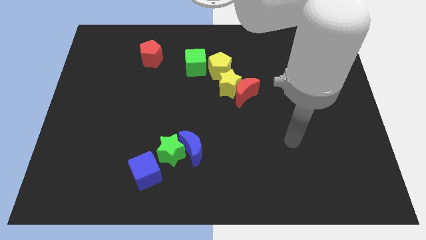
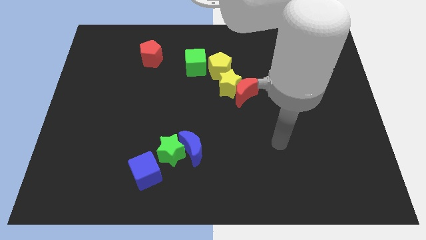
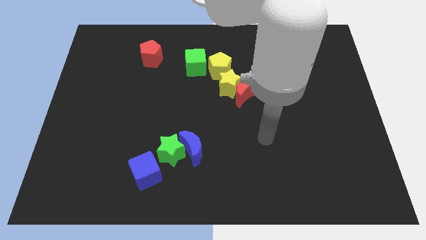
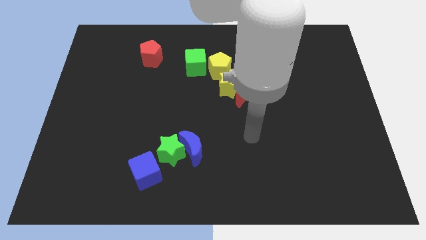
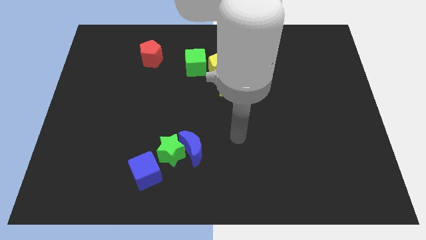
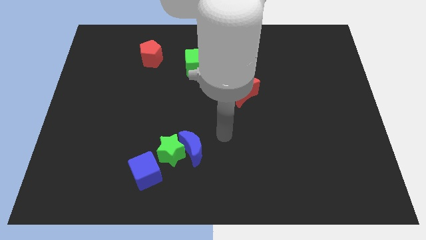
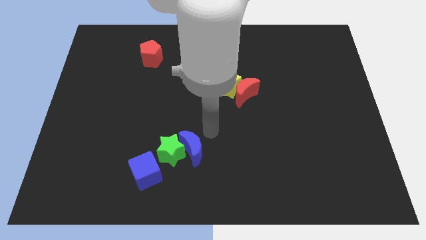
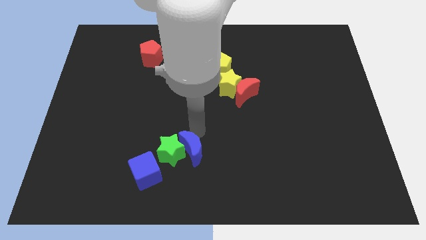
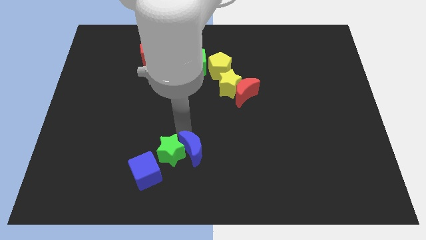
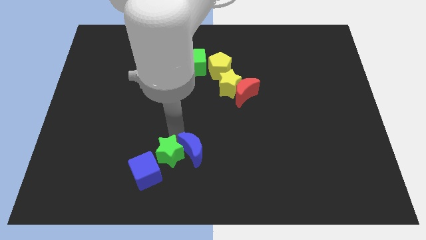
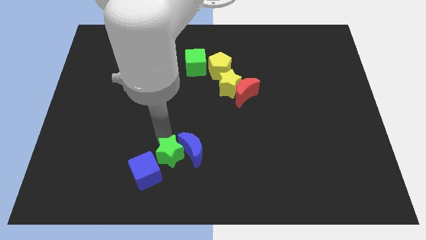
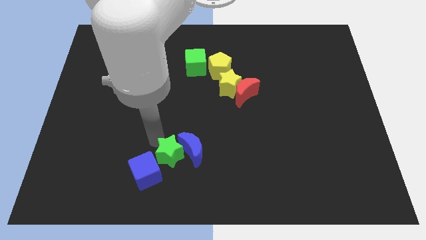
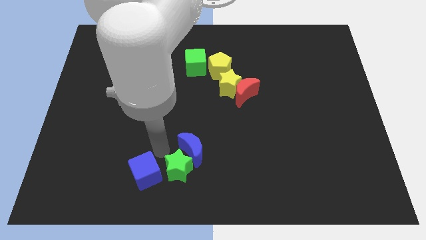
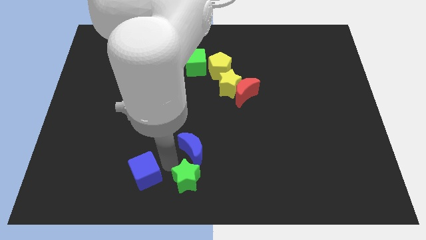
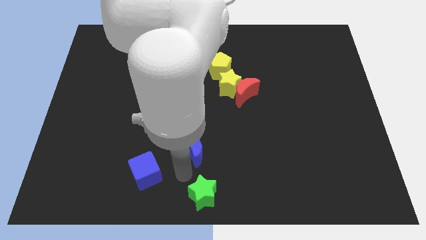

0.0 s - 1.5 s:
move the blue moon away from the green star

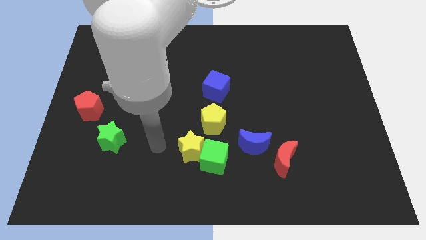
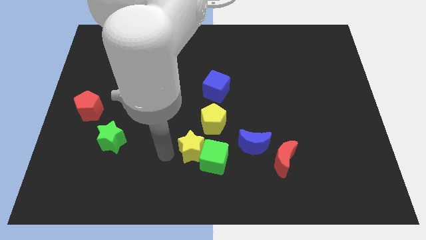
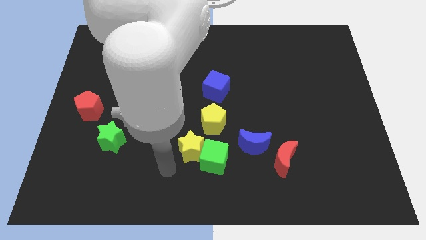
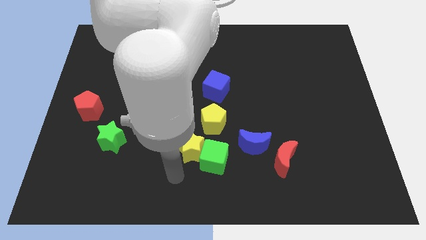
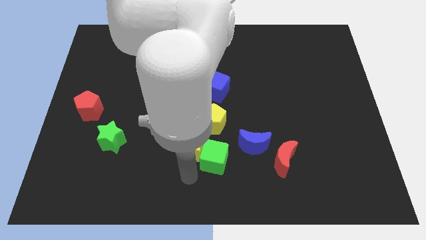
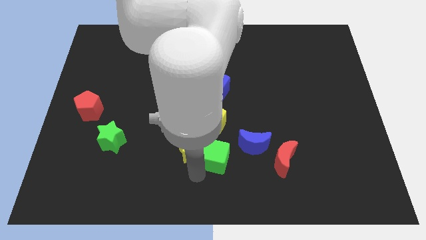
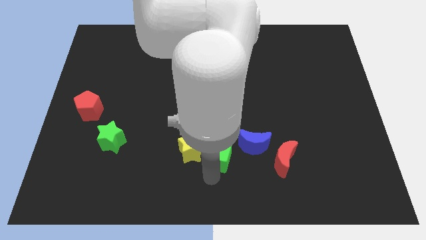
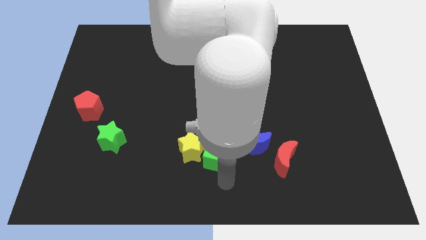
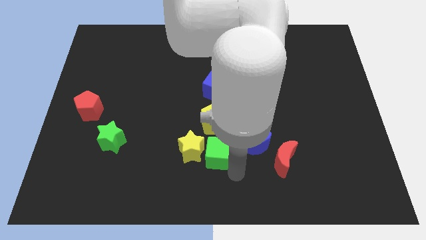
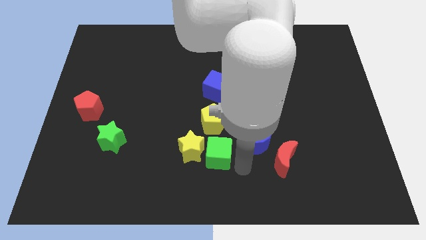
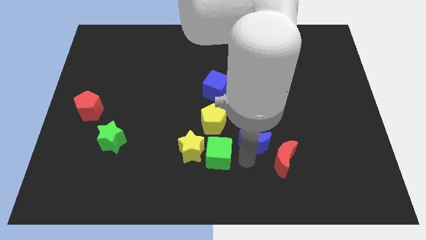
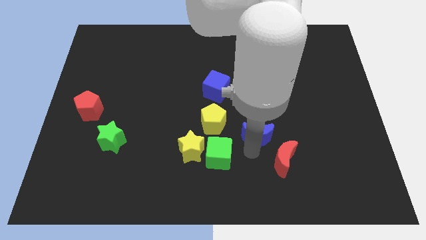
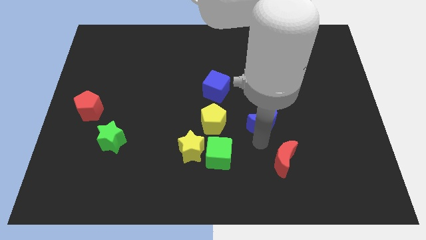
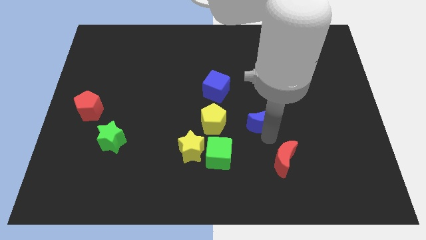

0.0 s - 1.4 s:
pull the red moon apart from the blue moon

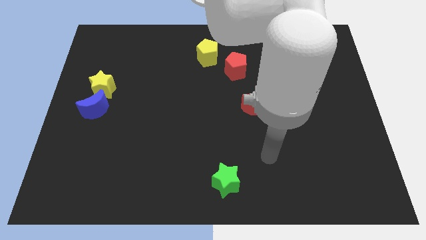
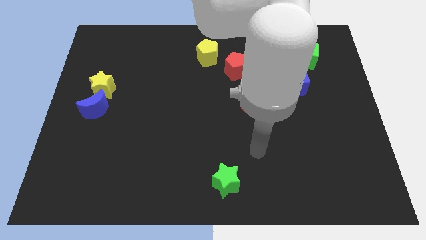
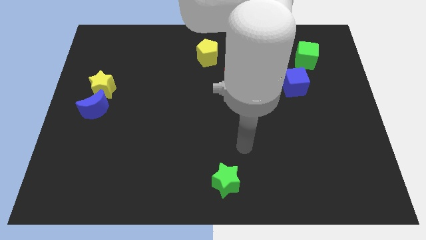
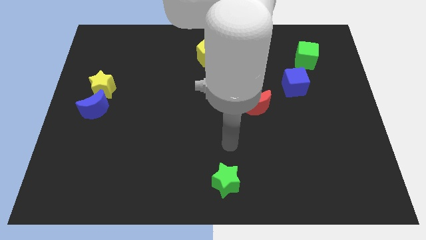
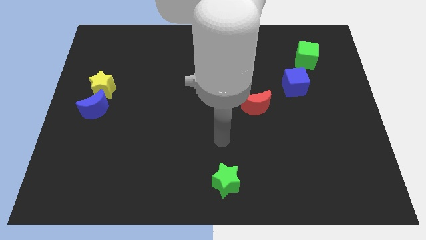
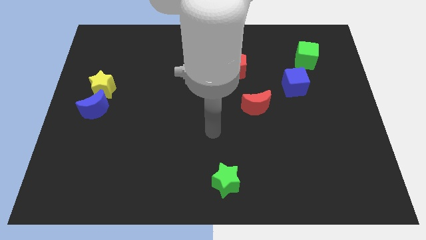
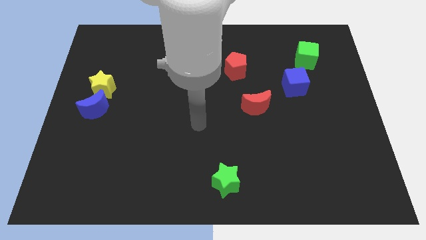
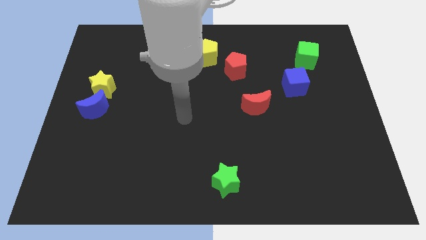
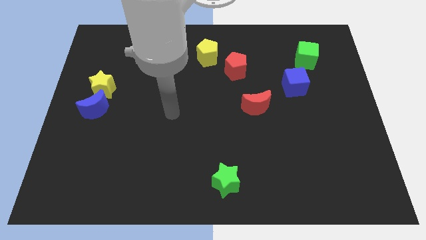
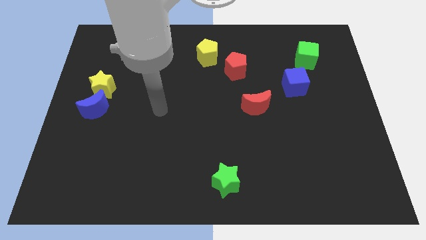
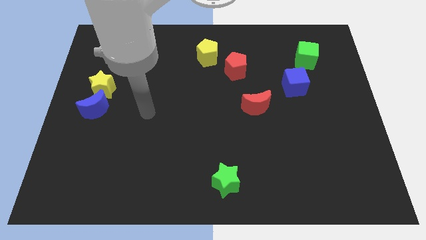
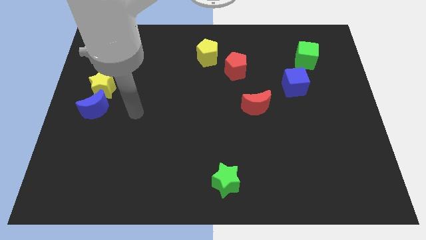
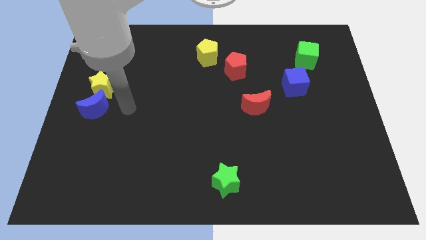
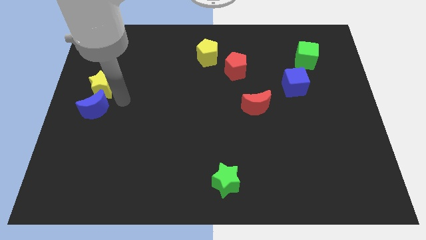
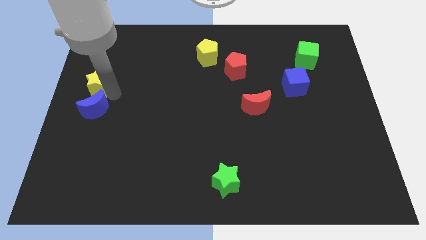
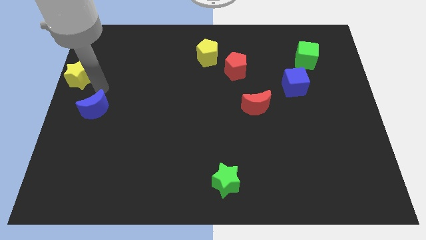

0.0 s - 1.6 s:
move the blue moon away from the yellow star

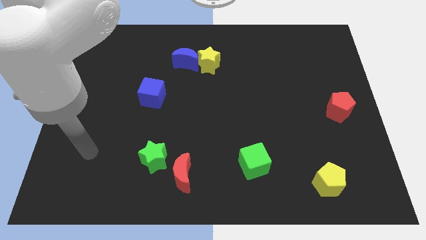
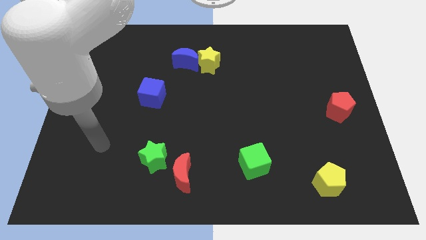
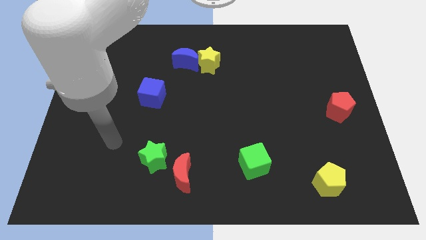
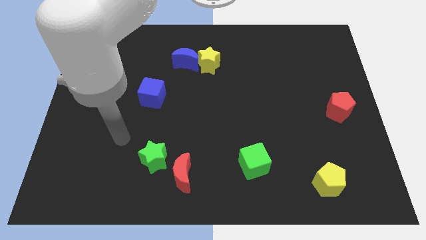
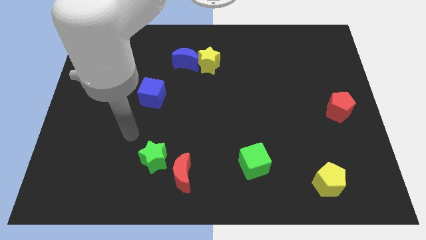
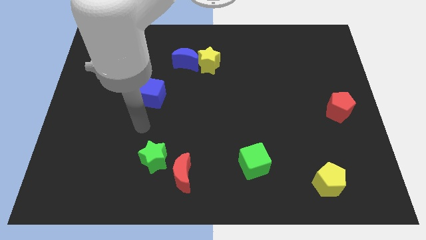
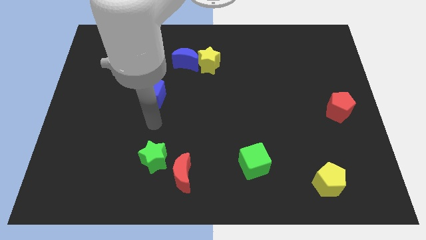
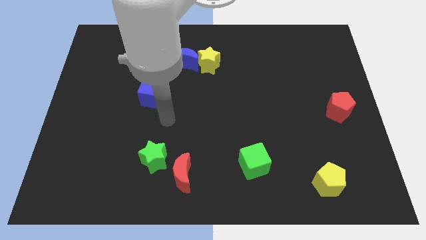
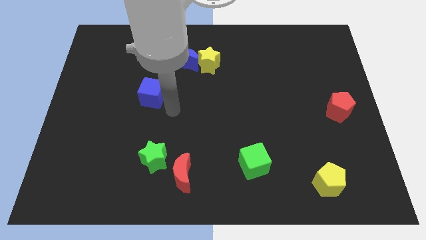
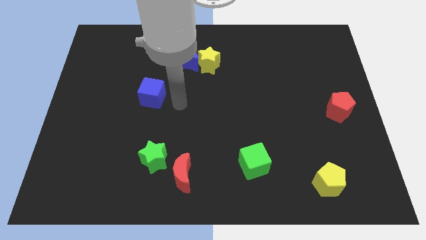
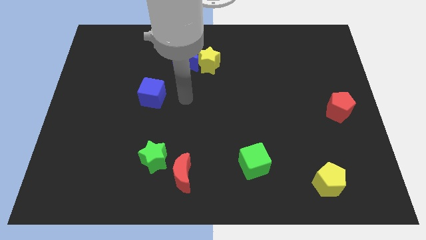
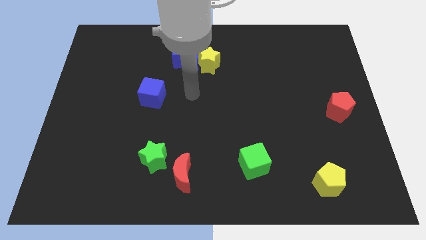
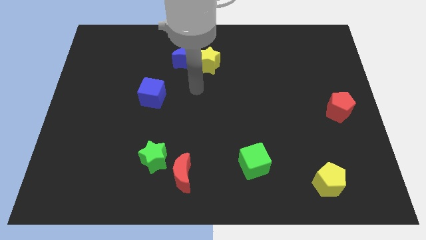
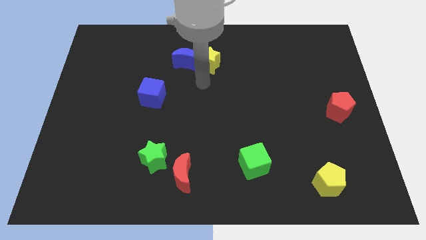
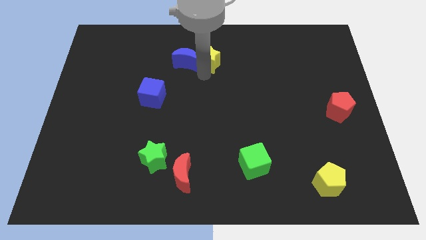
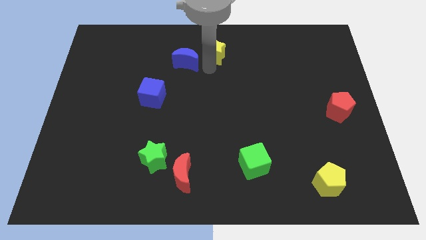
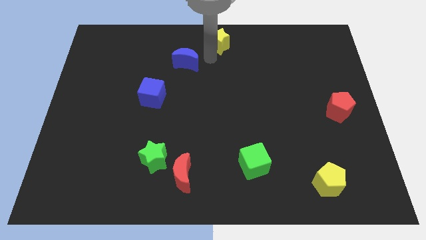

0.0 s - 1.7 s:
pull the blue moon apart from the yellow star

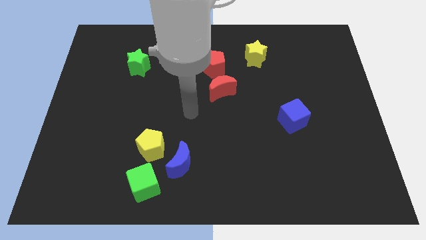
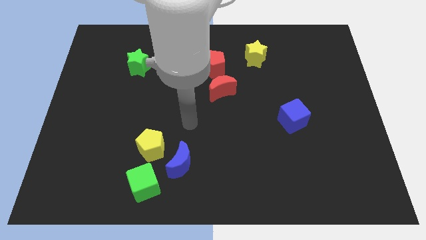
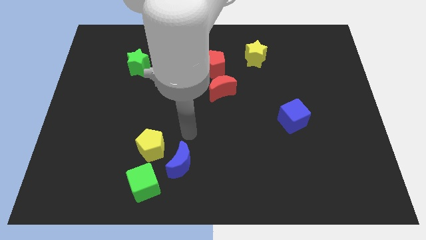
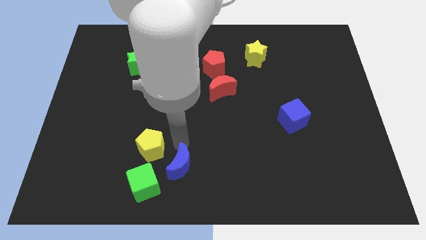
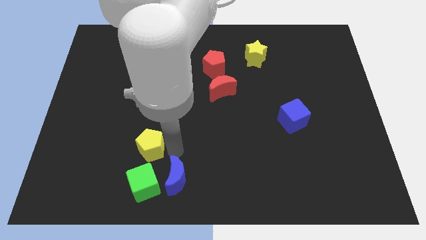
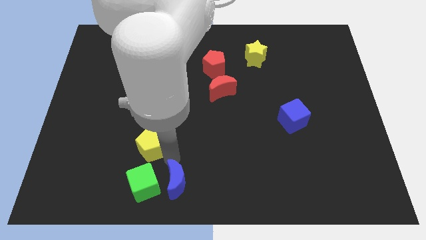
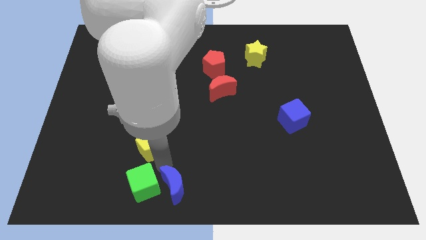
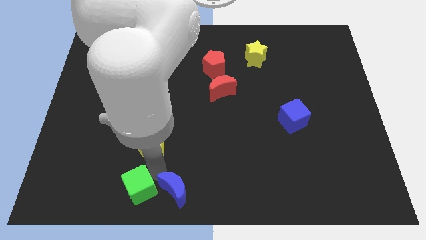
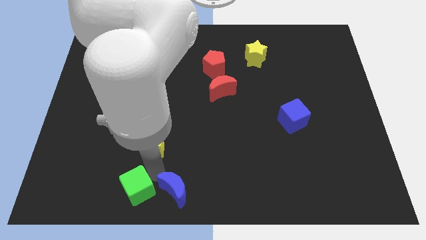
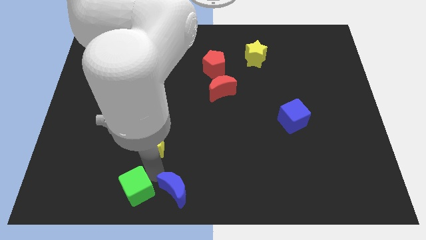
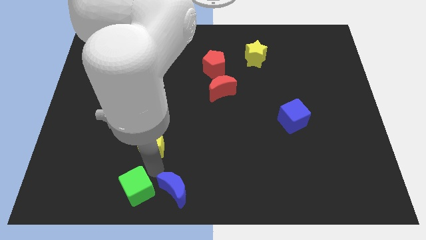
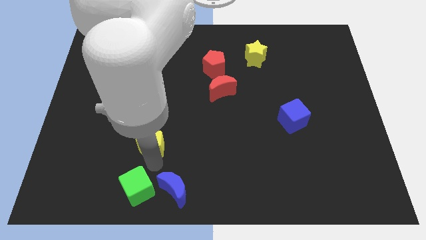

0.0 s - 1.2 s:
separate the yellow pentagon from the blue moon and green cube

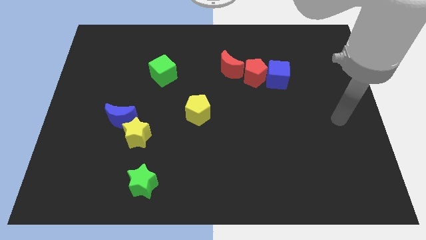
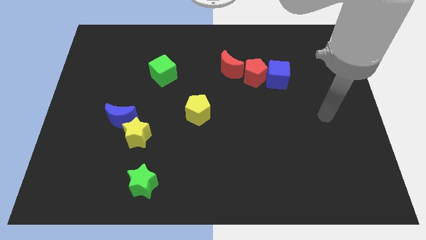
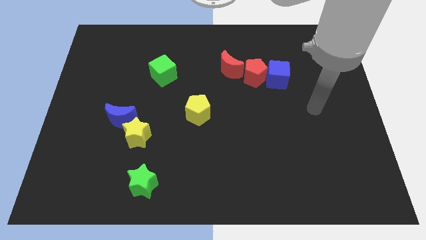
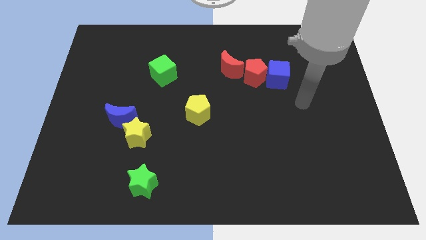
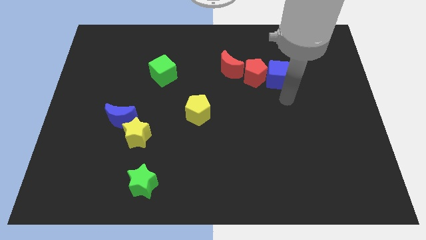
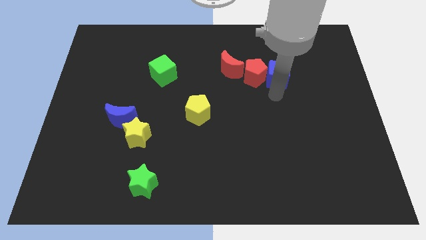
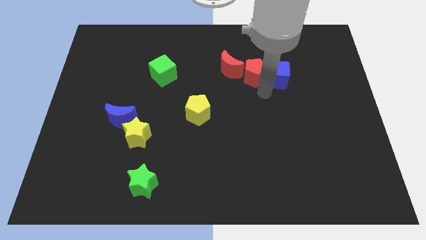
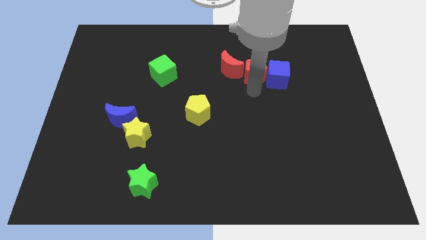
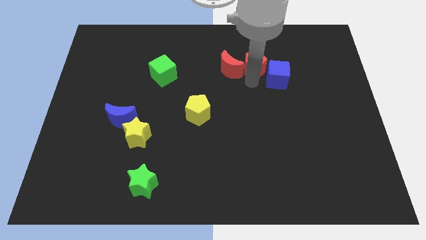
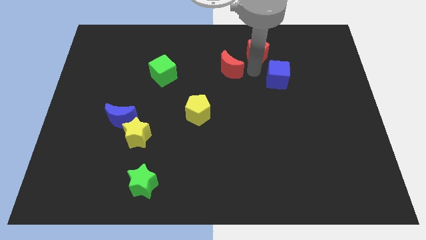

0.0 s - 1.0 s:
pull the blue cube apart from the red pentagon

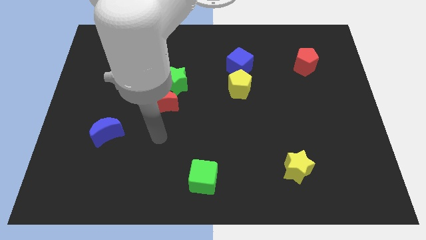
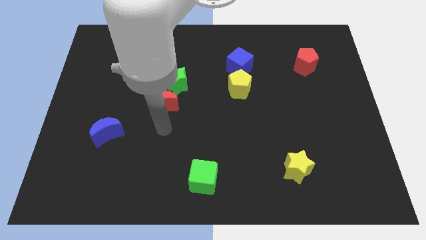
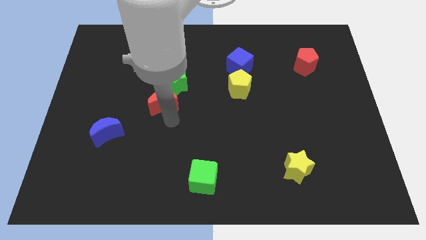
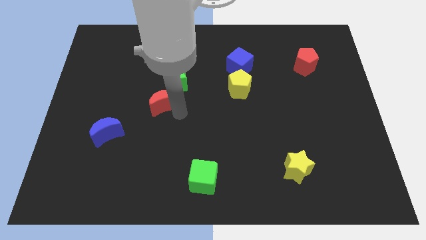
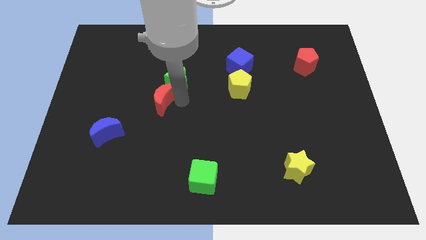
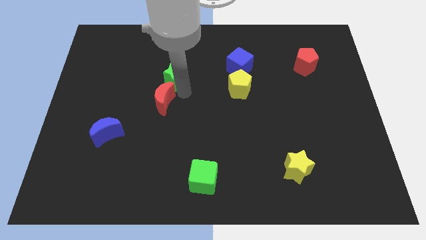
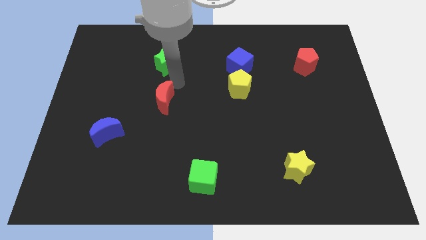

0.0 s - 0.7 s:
pull the red moon apart from the green star

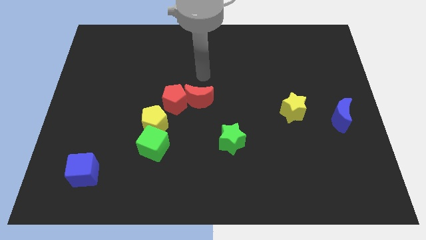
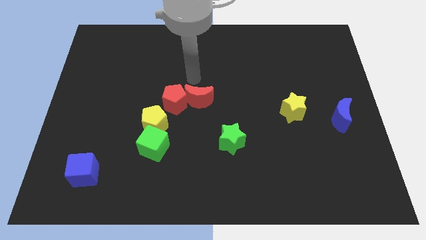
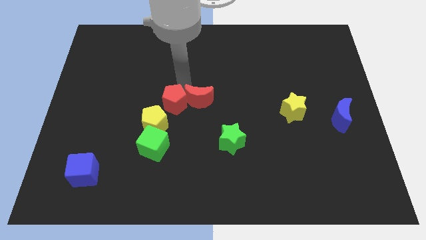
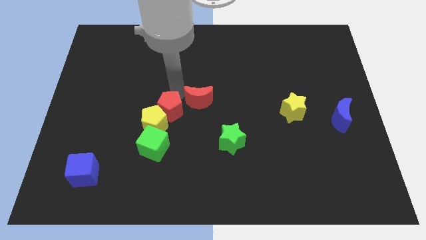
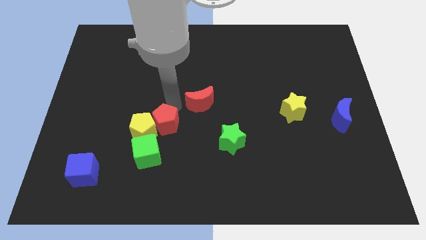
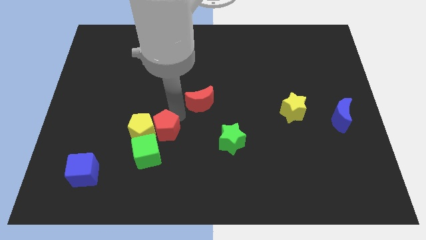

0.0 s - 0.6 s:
separate the red moon from the red pentagon
